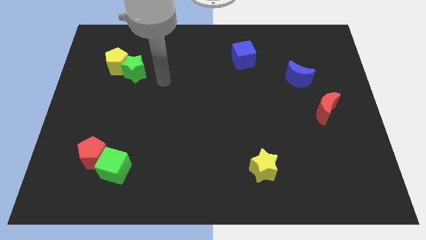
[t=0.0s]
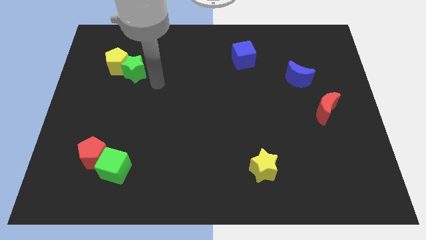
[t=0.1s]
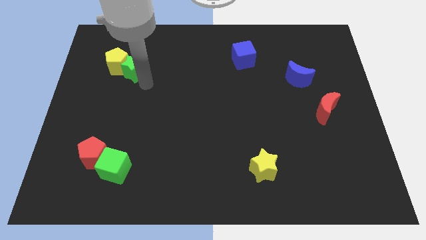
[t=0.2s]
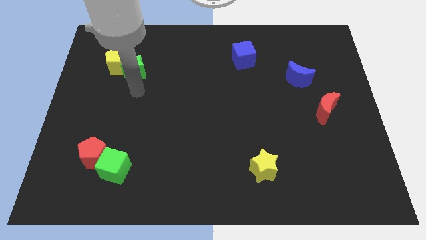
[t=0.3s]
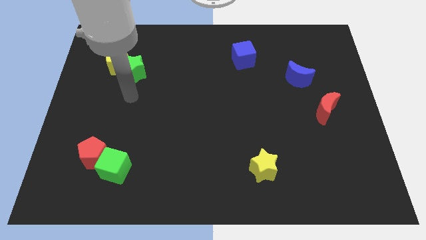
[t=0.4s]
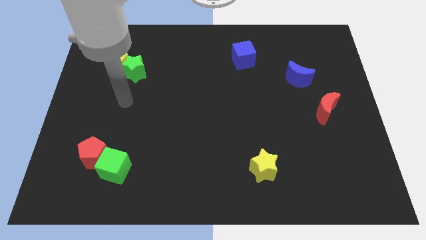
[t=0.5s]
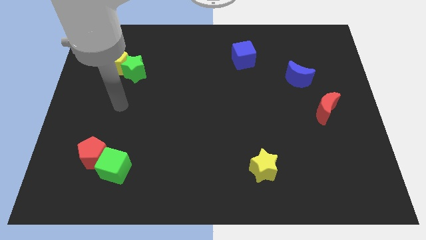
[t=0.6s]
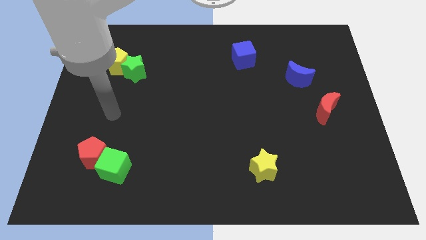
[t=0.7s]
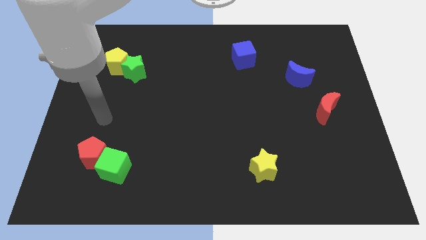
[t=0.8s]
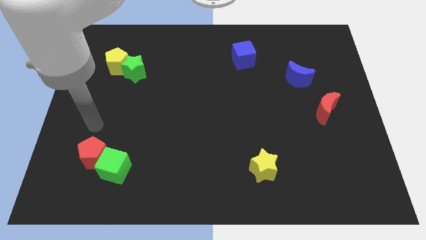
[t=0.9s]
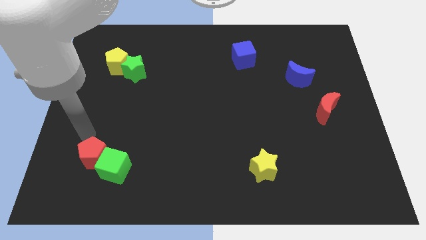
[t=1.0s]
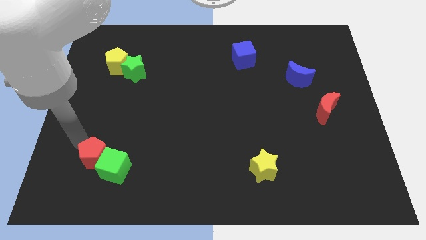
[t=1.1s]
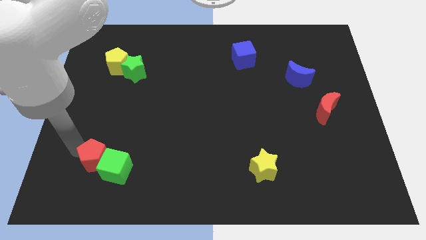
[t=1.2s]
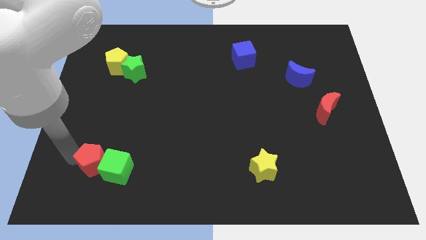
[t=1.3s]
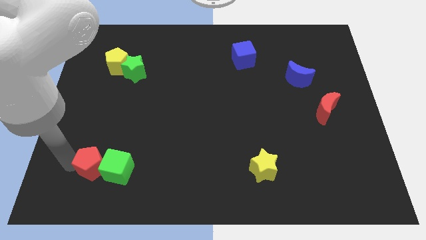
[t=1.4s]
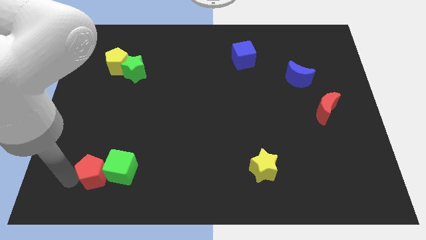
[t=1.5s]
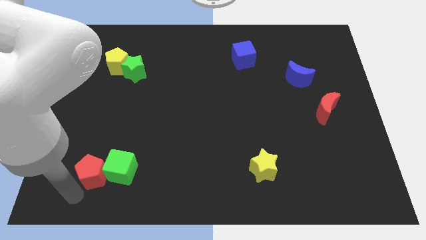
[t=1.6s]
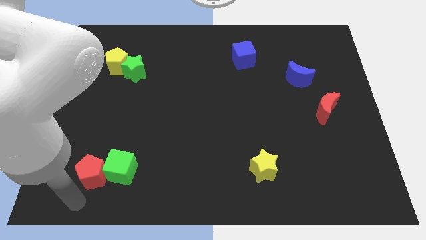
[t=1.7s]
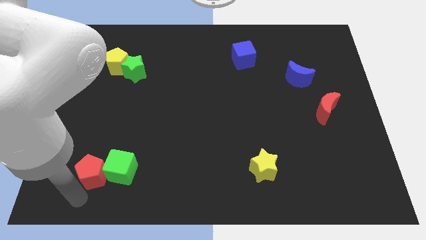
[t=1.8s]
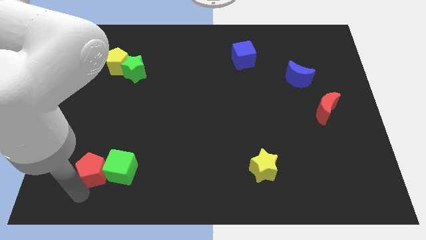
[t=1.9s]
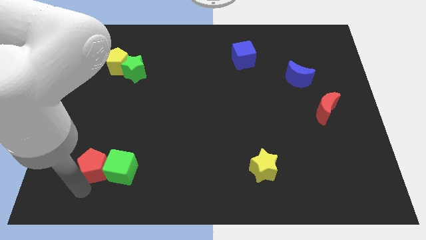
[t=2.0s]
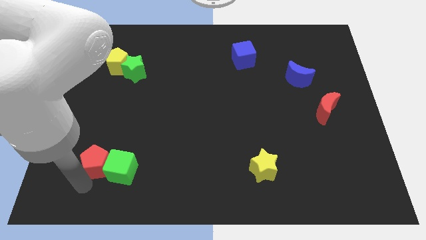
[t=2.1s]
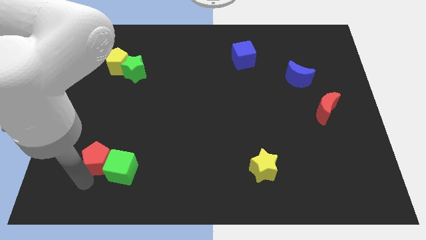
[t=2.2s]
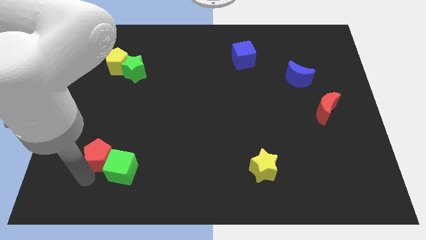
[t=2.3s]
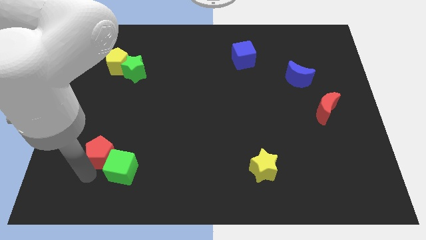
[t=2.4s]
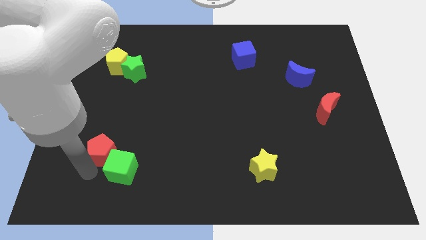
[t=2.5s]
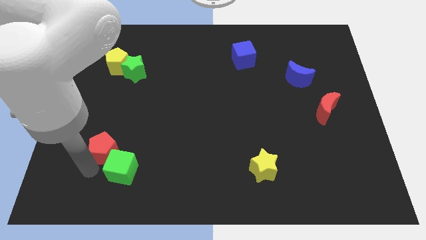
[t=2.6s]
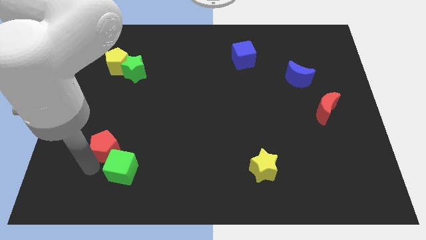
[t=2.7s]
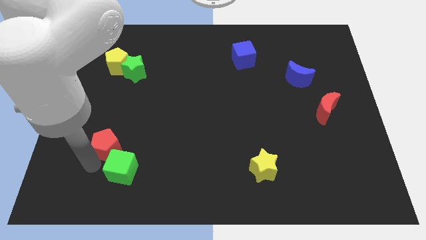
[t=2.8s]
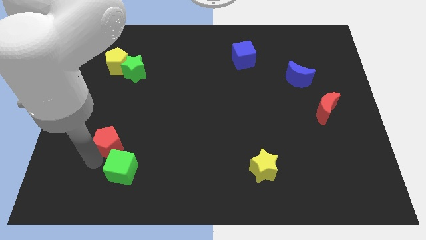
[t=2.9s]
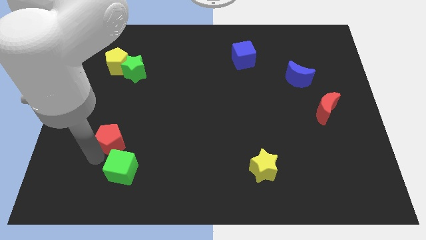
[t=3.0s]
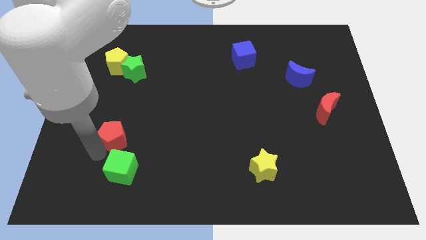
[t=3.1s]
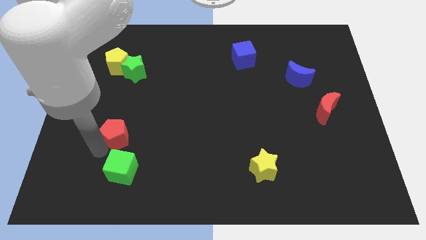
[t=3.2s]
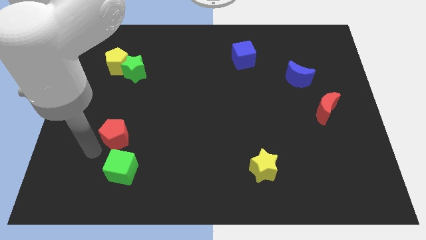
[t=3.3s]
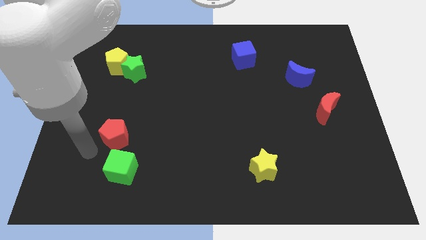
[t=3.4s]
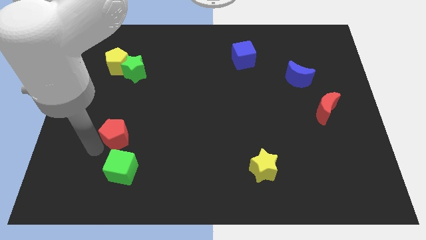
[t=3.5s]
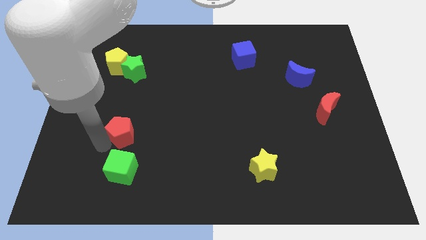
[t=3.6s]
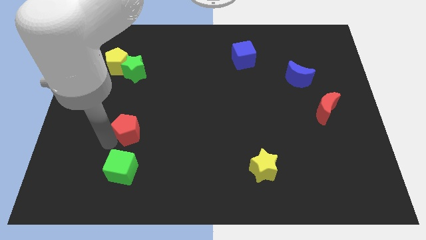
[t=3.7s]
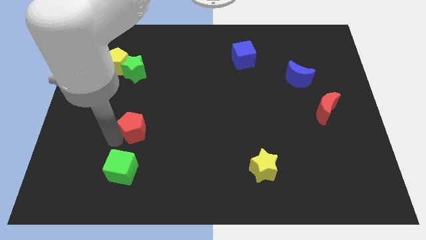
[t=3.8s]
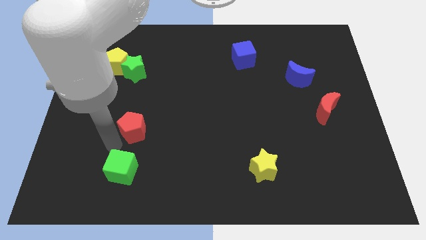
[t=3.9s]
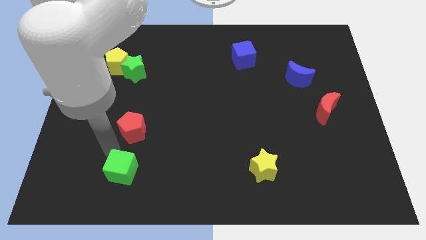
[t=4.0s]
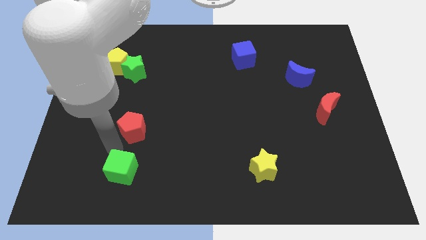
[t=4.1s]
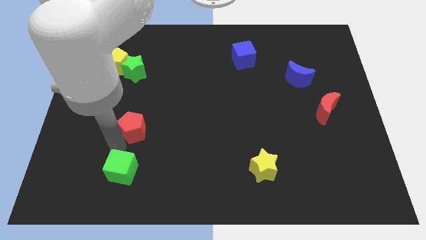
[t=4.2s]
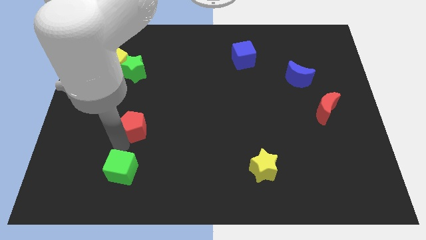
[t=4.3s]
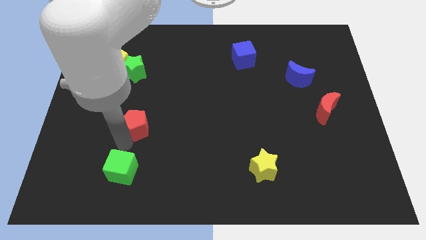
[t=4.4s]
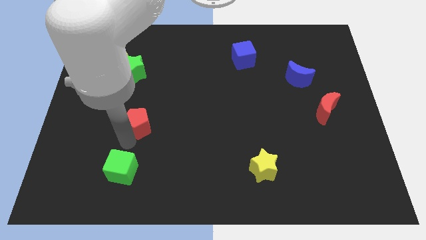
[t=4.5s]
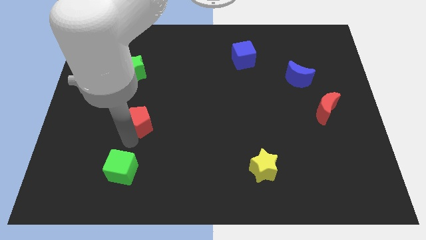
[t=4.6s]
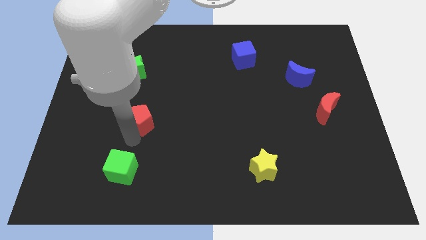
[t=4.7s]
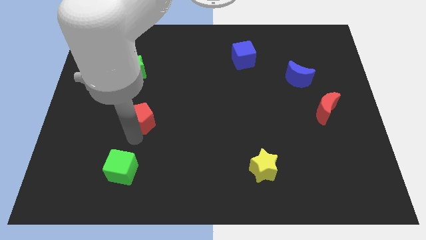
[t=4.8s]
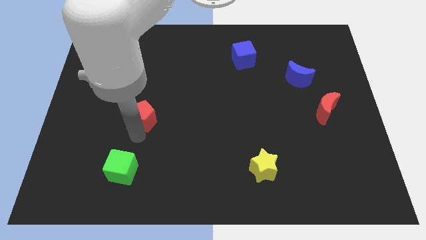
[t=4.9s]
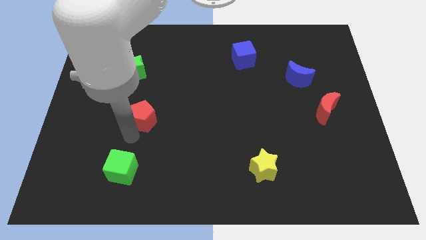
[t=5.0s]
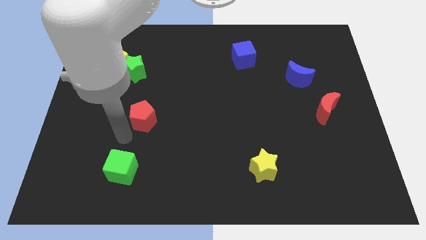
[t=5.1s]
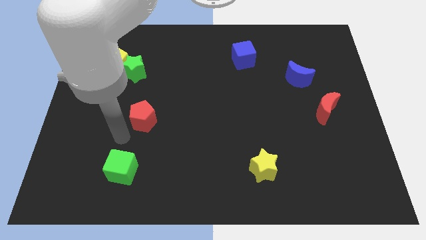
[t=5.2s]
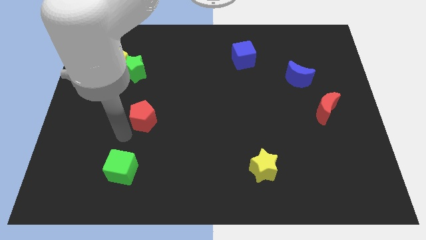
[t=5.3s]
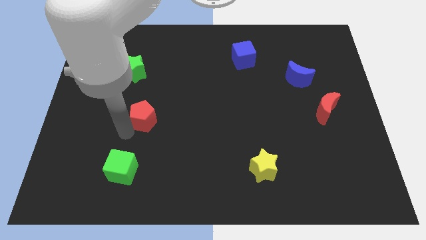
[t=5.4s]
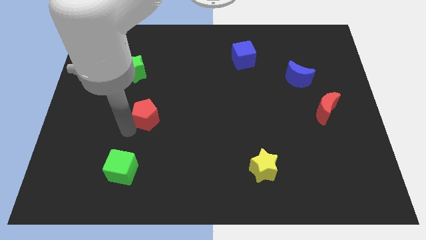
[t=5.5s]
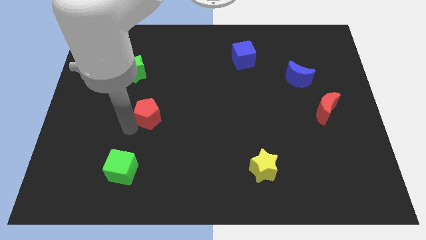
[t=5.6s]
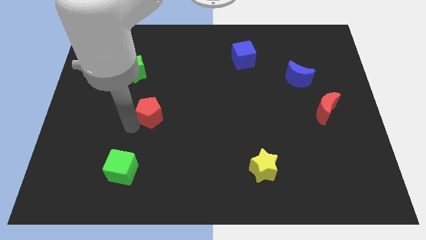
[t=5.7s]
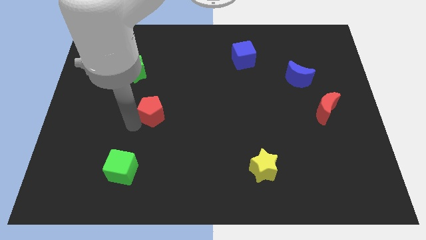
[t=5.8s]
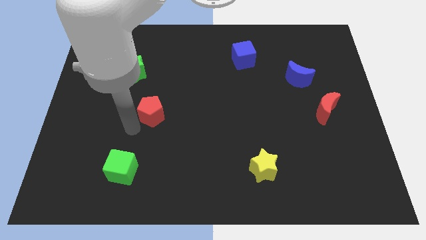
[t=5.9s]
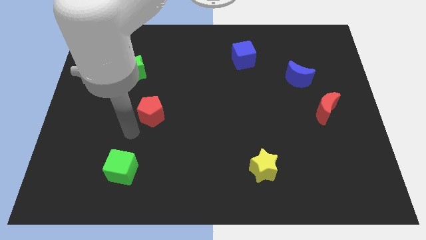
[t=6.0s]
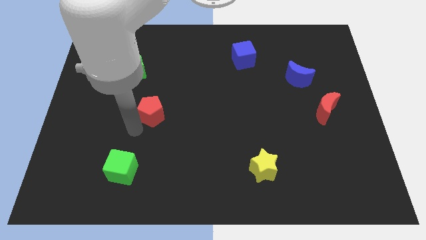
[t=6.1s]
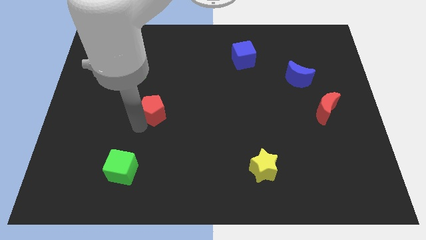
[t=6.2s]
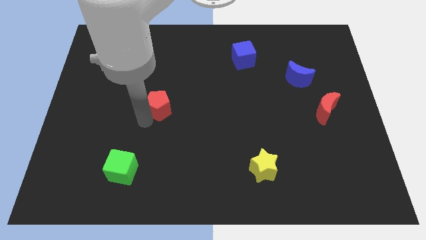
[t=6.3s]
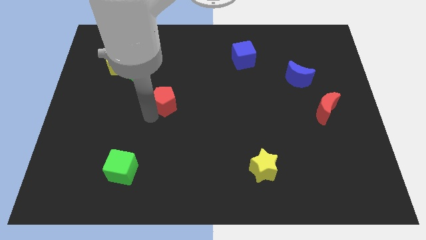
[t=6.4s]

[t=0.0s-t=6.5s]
slide the red pentagon upwards and to the right

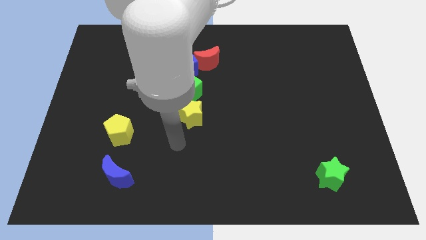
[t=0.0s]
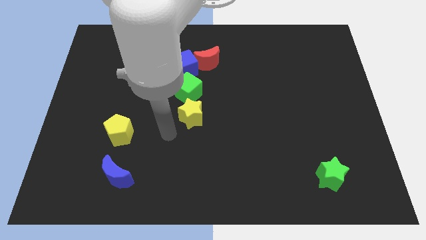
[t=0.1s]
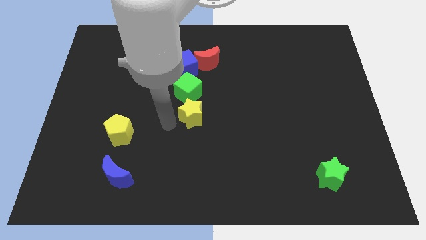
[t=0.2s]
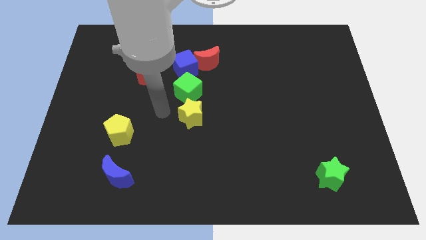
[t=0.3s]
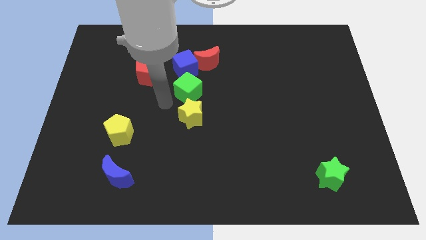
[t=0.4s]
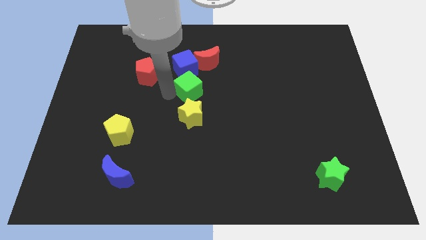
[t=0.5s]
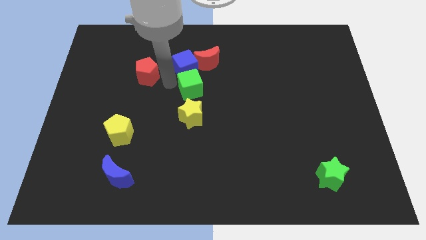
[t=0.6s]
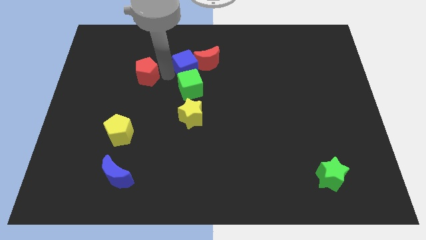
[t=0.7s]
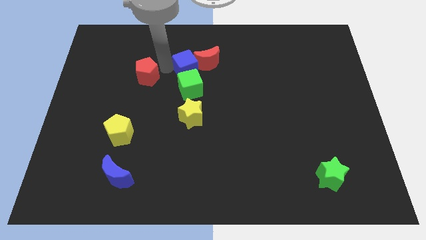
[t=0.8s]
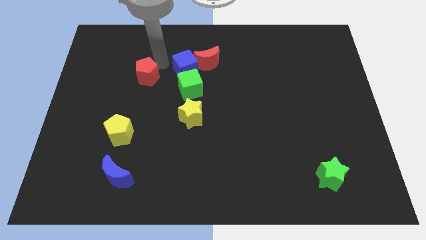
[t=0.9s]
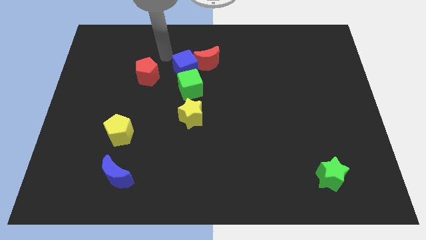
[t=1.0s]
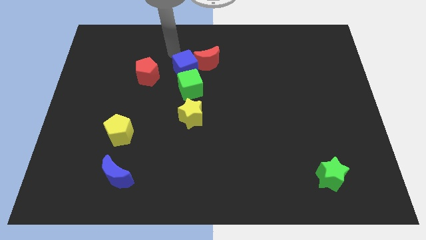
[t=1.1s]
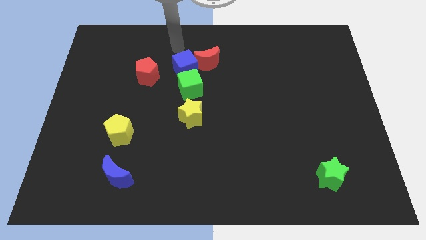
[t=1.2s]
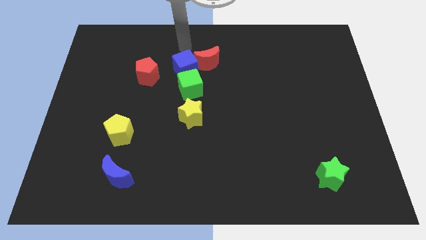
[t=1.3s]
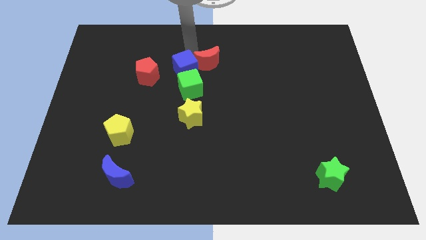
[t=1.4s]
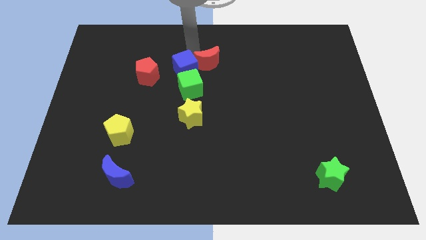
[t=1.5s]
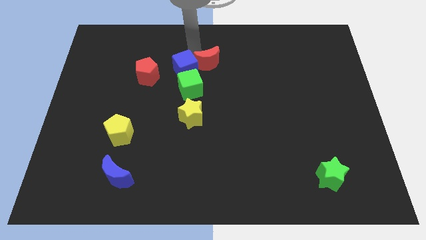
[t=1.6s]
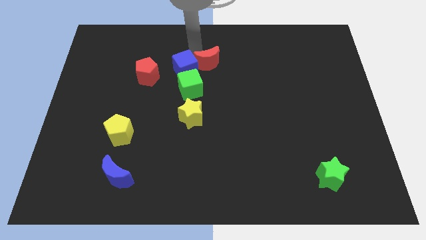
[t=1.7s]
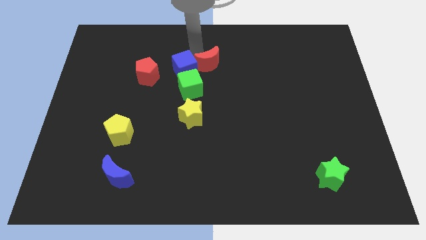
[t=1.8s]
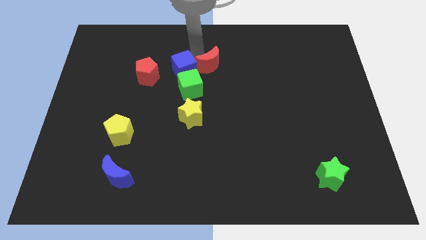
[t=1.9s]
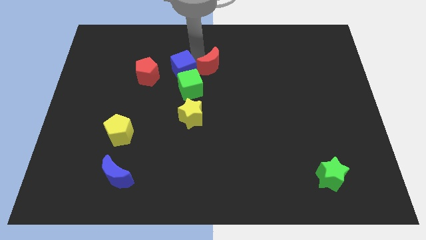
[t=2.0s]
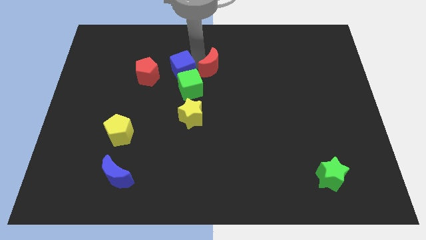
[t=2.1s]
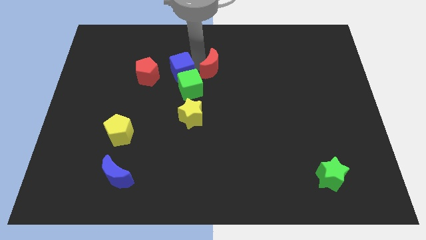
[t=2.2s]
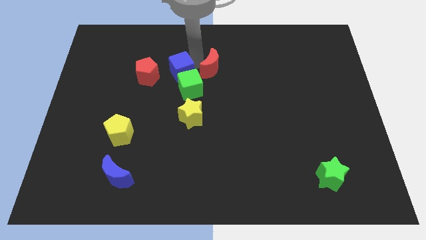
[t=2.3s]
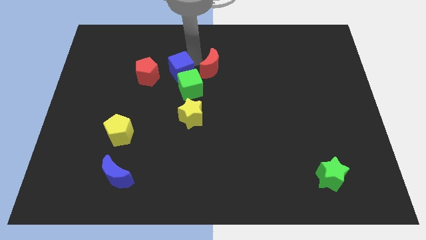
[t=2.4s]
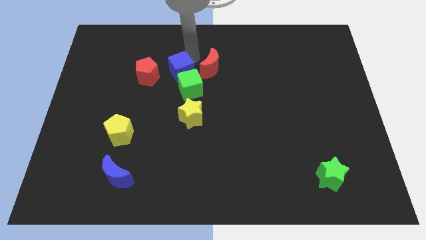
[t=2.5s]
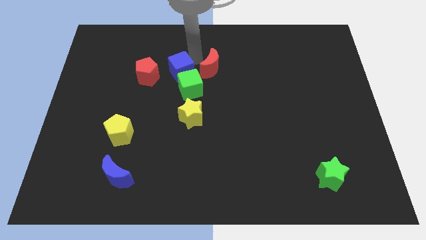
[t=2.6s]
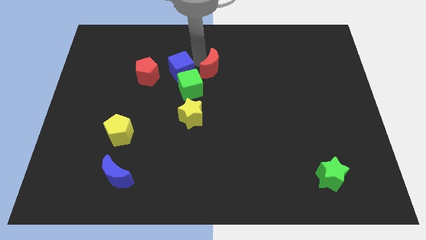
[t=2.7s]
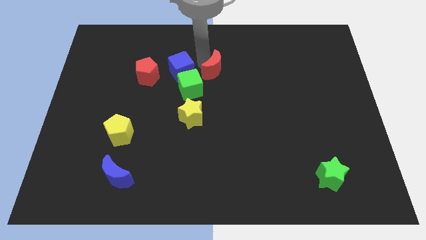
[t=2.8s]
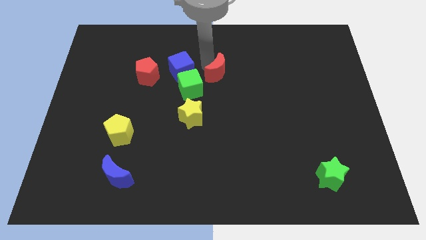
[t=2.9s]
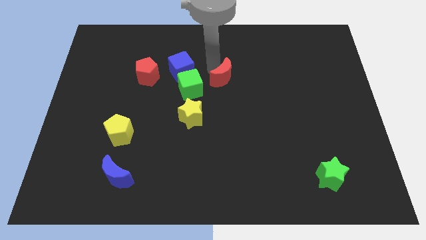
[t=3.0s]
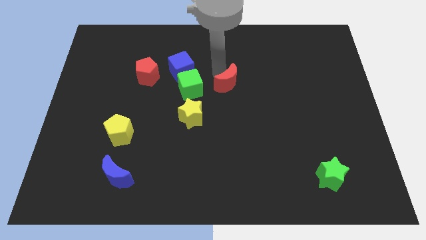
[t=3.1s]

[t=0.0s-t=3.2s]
move the red moon a bit diagonally downwards and to the right
